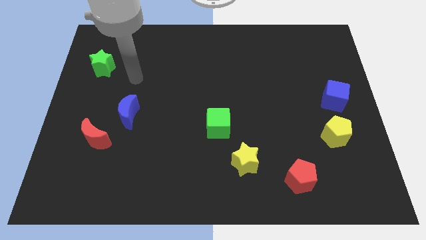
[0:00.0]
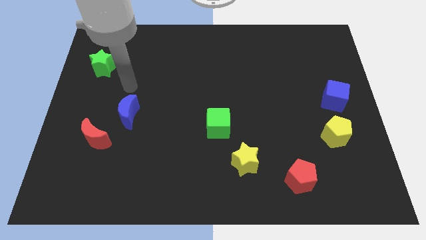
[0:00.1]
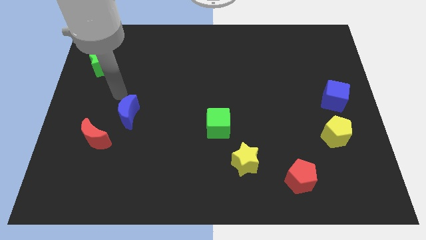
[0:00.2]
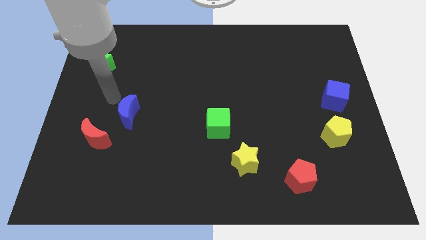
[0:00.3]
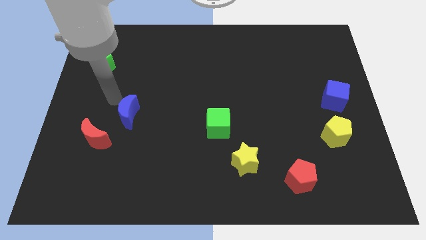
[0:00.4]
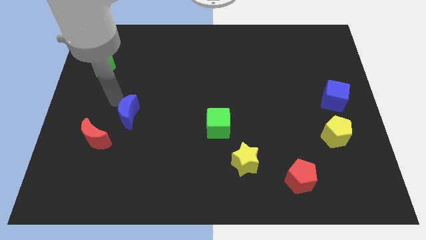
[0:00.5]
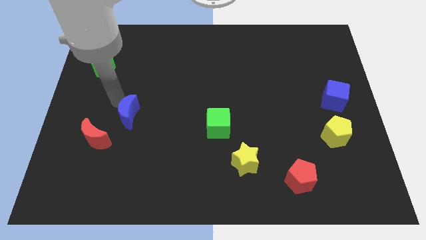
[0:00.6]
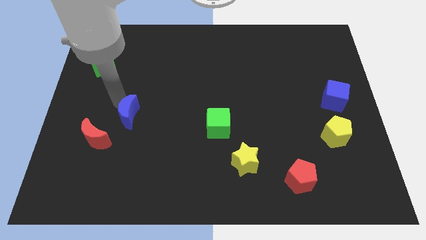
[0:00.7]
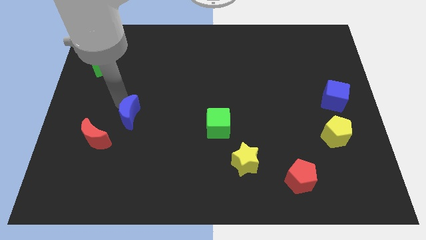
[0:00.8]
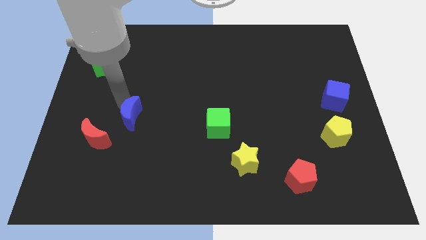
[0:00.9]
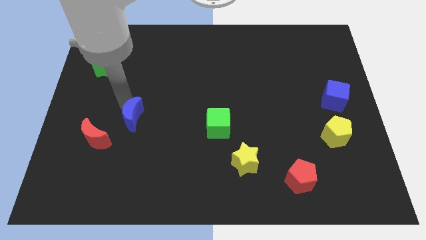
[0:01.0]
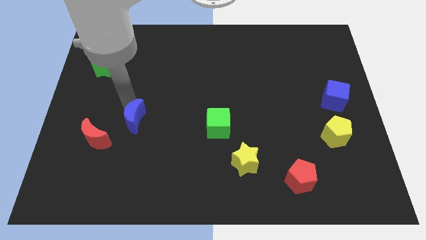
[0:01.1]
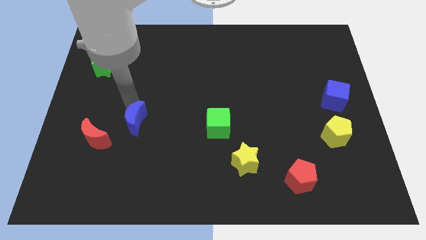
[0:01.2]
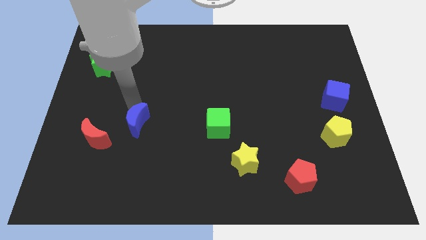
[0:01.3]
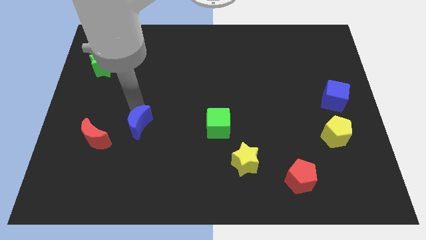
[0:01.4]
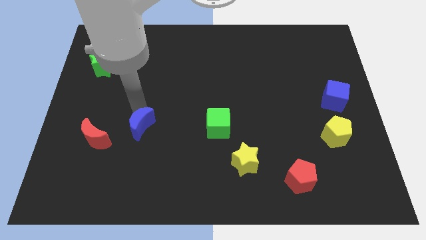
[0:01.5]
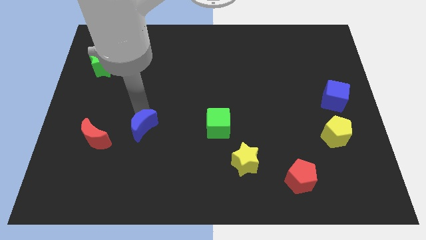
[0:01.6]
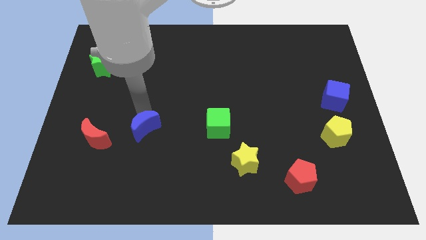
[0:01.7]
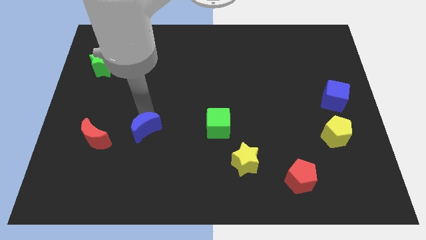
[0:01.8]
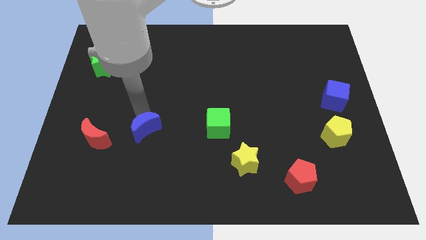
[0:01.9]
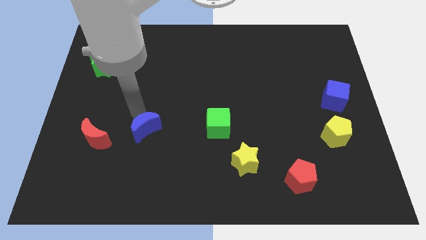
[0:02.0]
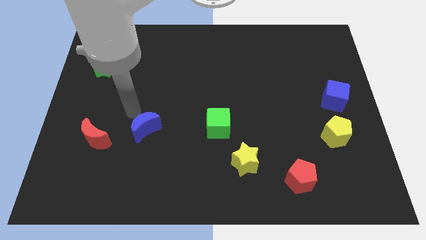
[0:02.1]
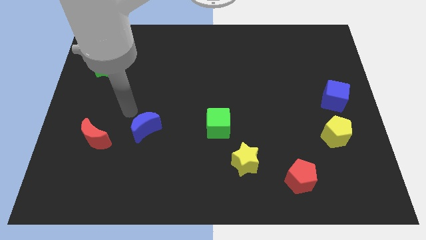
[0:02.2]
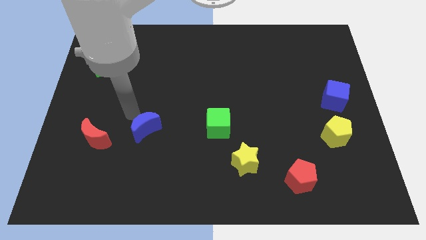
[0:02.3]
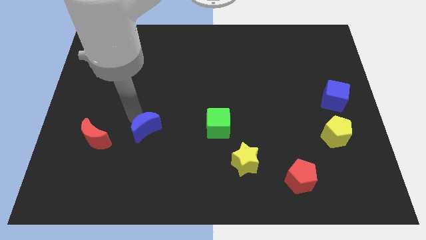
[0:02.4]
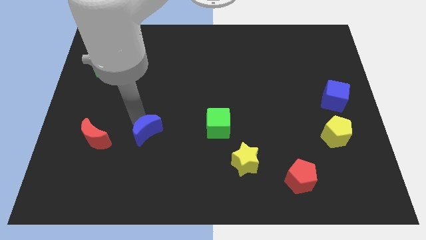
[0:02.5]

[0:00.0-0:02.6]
slightly move the blue moon downwards and to the right diagonally

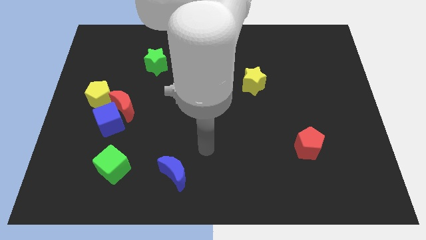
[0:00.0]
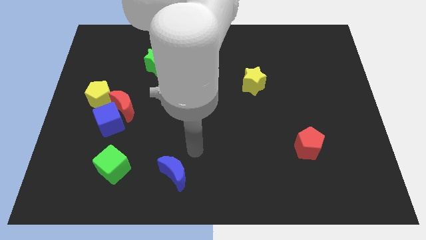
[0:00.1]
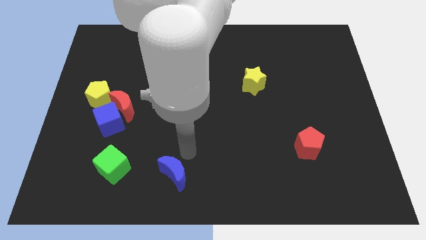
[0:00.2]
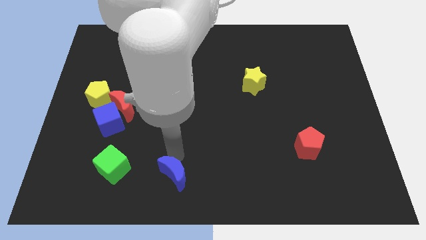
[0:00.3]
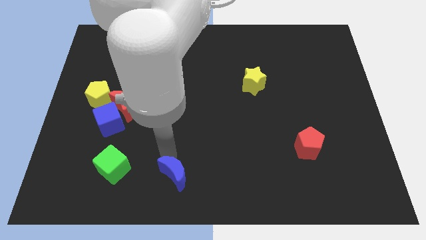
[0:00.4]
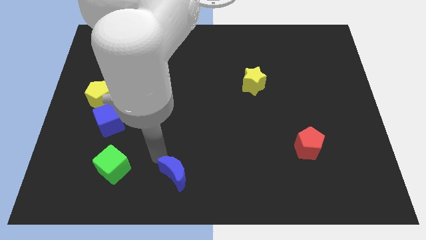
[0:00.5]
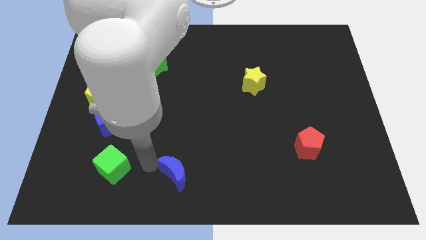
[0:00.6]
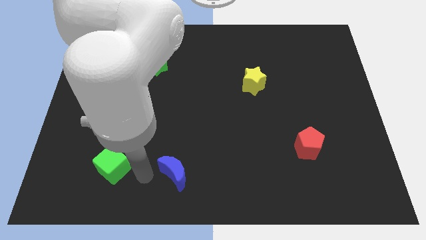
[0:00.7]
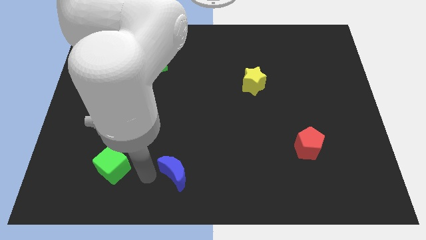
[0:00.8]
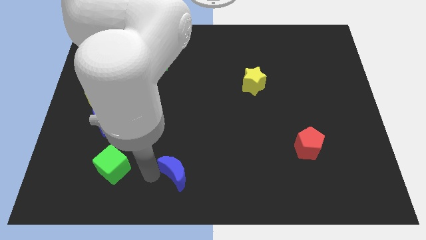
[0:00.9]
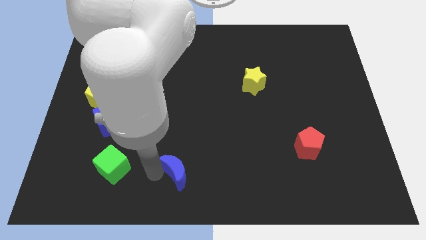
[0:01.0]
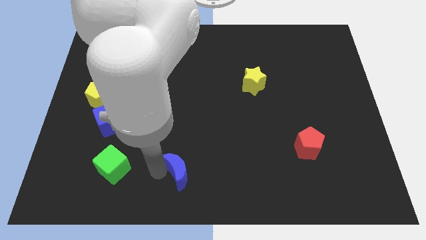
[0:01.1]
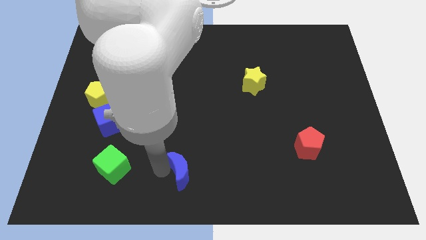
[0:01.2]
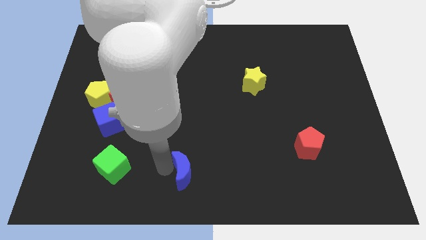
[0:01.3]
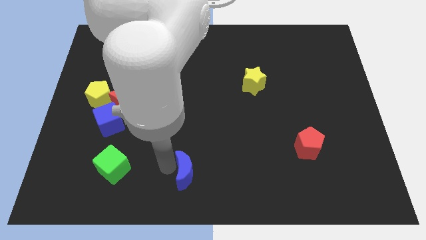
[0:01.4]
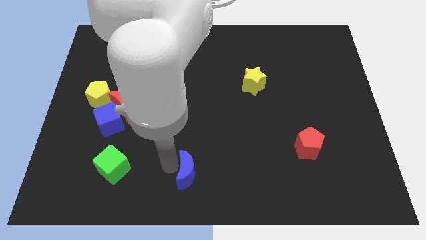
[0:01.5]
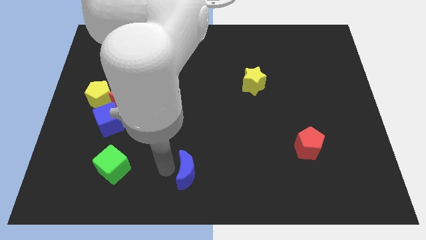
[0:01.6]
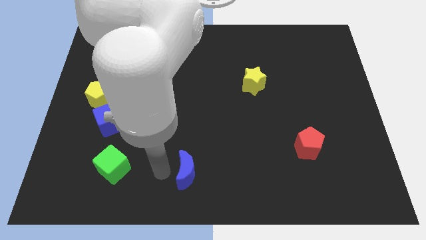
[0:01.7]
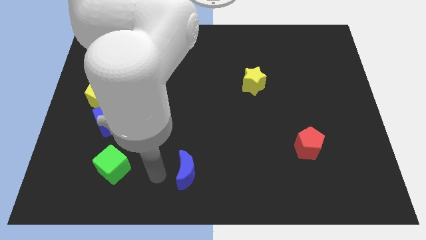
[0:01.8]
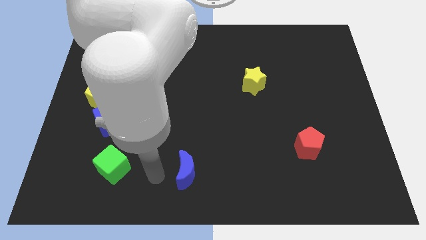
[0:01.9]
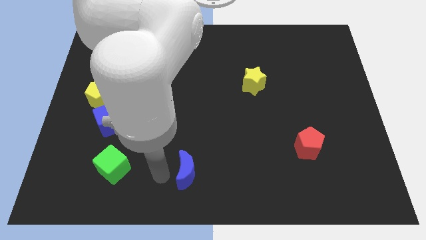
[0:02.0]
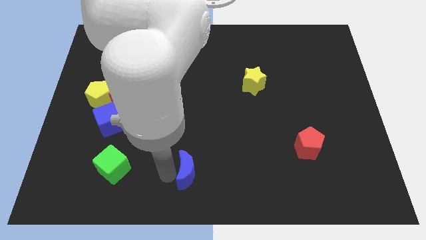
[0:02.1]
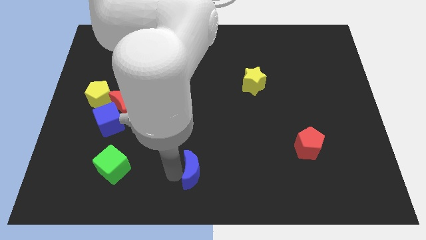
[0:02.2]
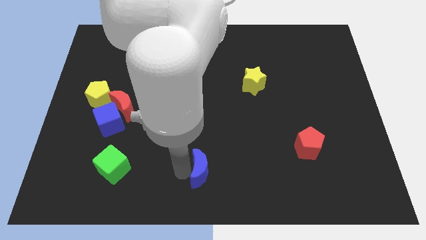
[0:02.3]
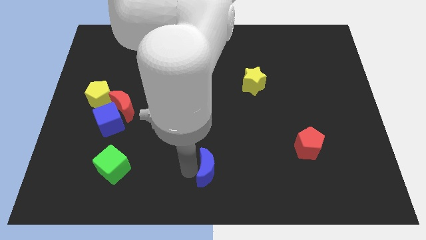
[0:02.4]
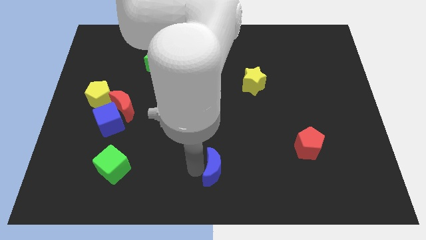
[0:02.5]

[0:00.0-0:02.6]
move the blue moon a bit to the right

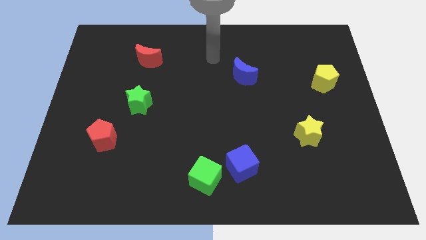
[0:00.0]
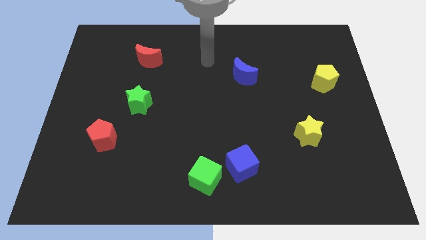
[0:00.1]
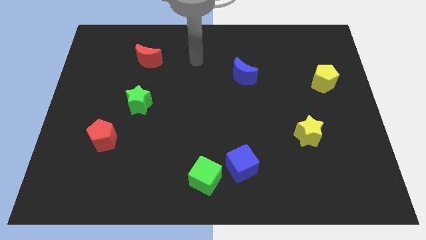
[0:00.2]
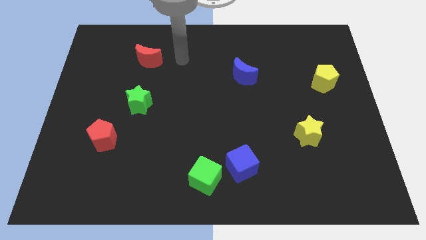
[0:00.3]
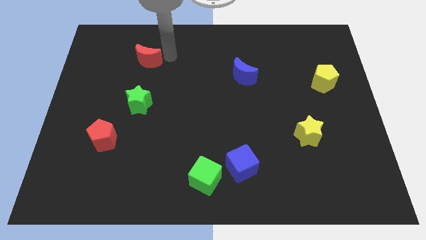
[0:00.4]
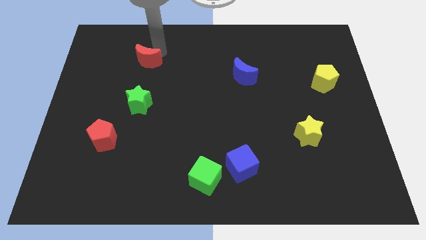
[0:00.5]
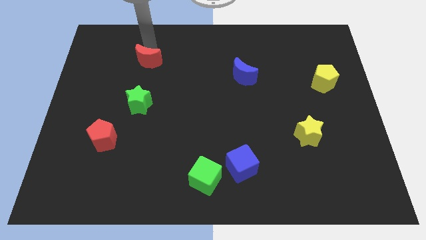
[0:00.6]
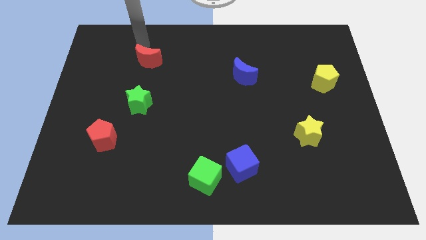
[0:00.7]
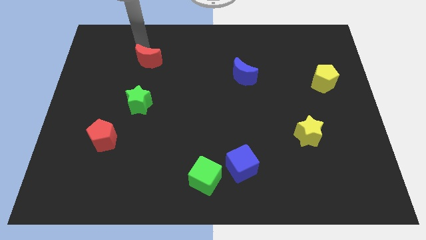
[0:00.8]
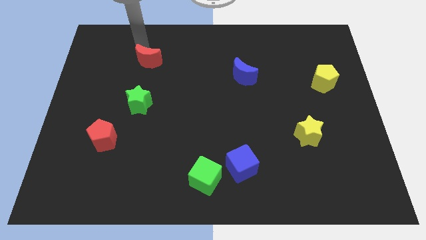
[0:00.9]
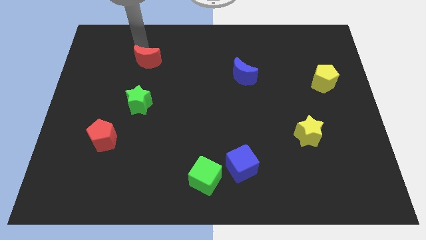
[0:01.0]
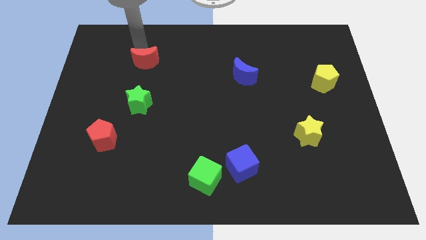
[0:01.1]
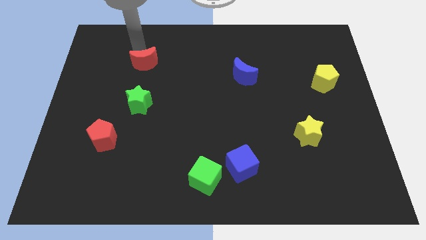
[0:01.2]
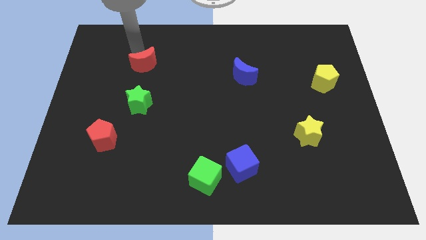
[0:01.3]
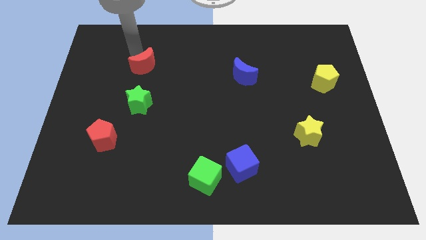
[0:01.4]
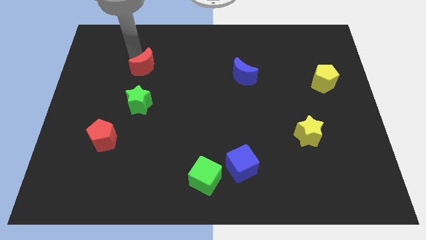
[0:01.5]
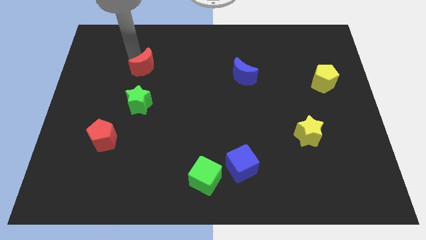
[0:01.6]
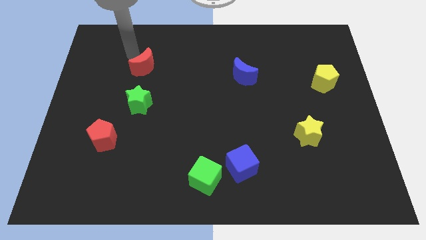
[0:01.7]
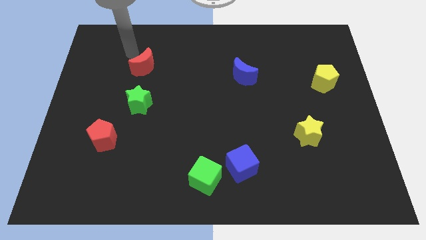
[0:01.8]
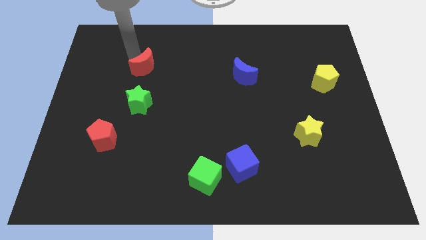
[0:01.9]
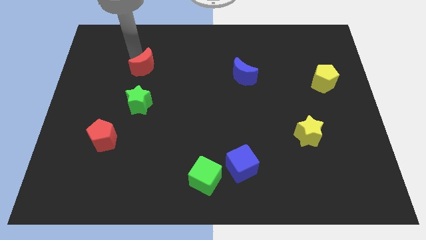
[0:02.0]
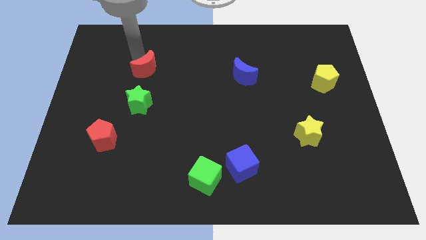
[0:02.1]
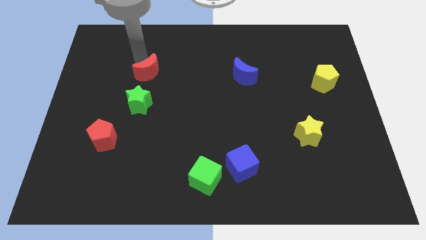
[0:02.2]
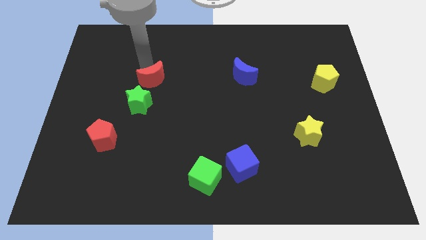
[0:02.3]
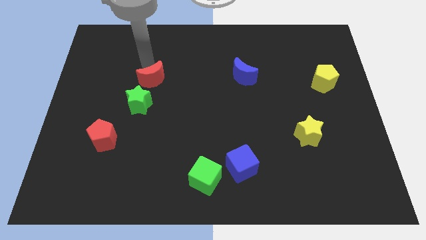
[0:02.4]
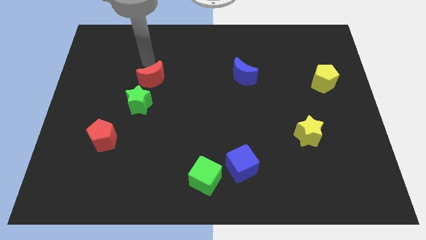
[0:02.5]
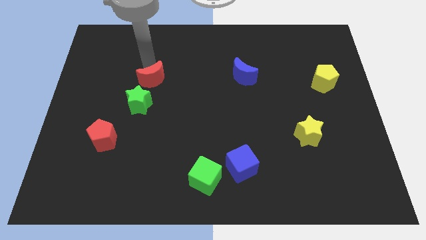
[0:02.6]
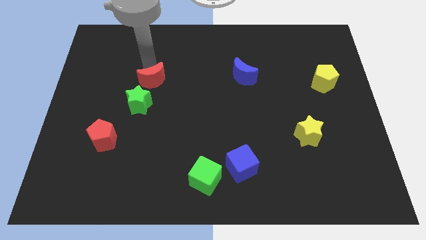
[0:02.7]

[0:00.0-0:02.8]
slide the red moon slightly down

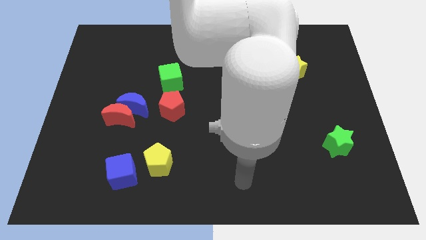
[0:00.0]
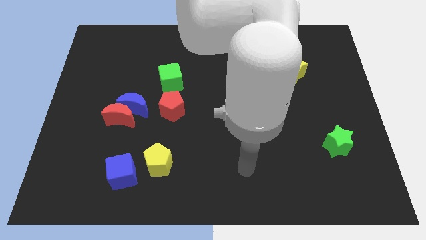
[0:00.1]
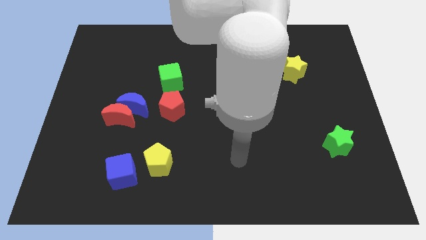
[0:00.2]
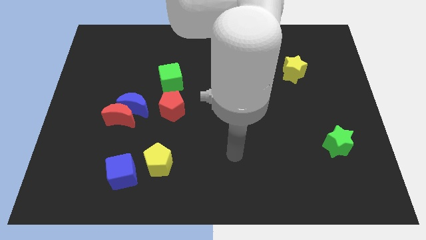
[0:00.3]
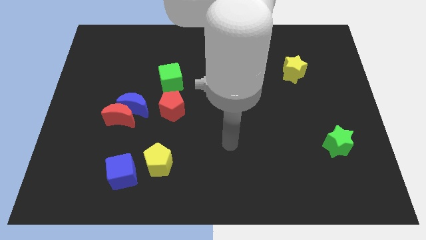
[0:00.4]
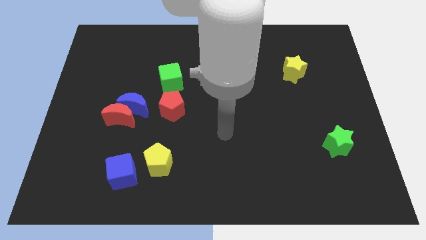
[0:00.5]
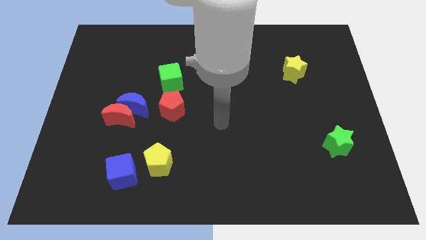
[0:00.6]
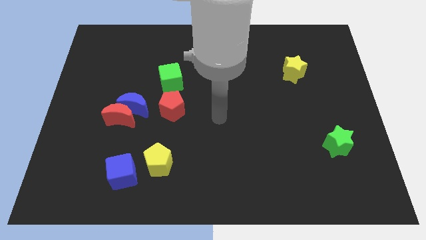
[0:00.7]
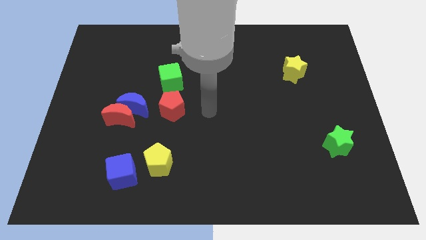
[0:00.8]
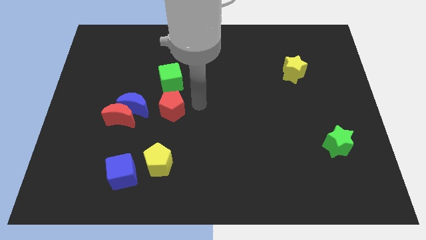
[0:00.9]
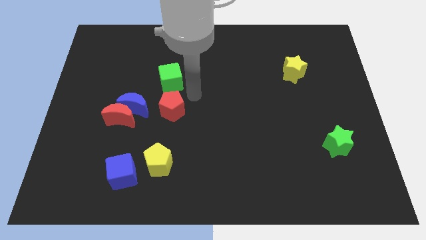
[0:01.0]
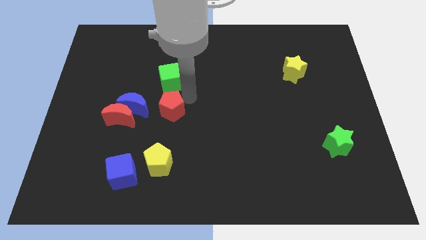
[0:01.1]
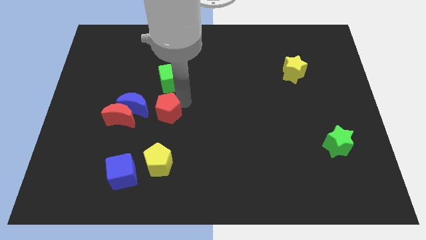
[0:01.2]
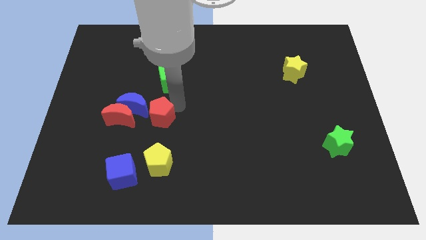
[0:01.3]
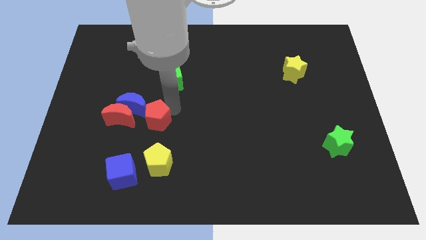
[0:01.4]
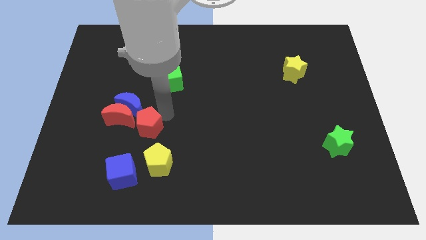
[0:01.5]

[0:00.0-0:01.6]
slightly move the red pentagon down and left
